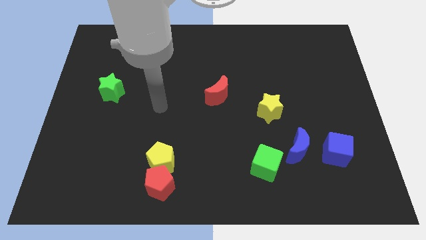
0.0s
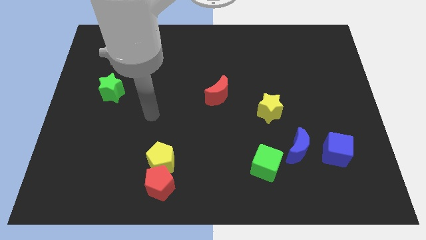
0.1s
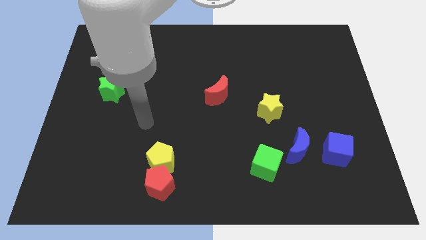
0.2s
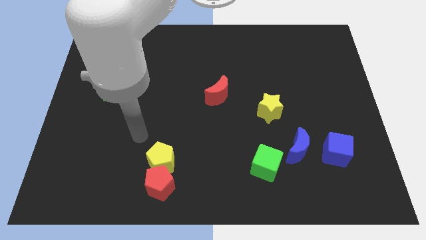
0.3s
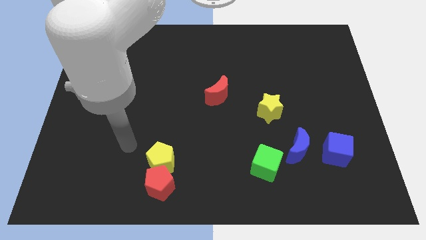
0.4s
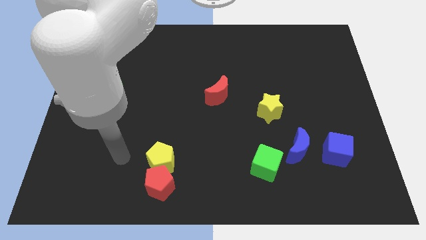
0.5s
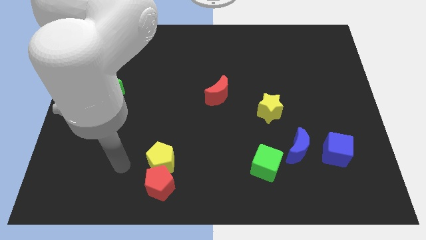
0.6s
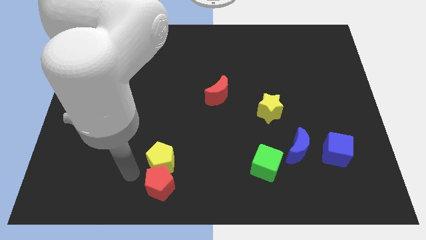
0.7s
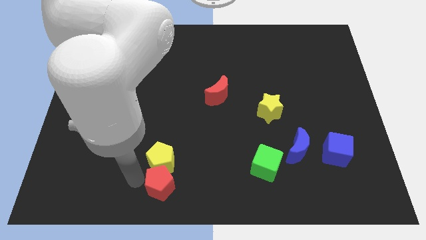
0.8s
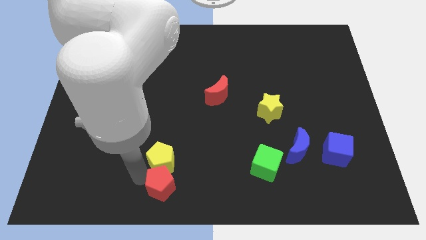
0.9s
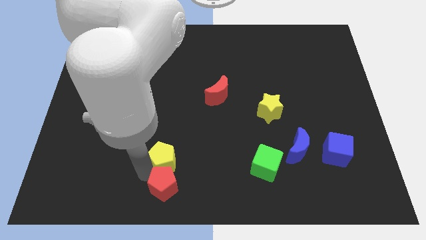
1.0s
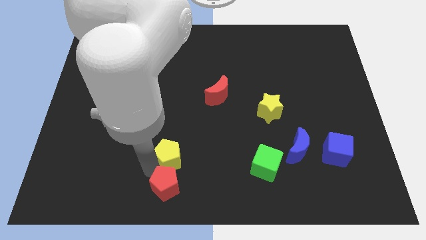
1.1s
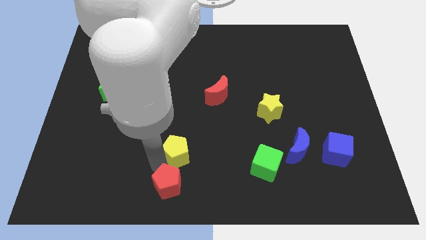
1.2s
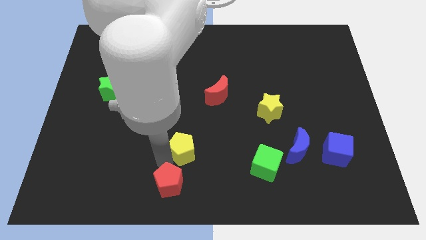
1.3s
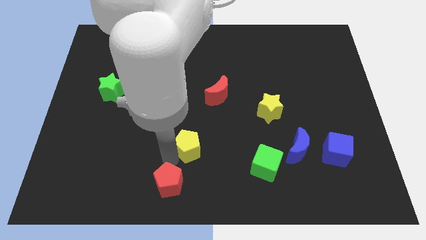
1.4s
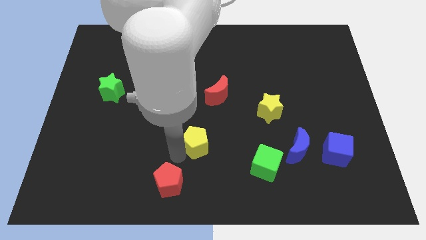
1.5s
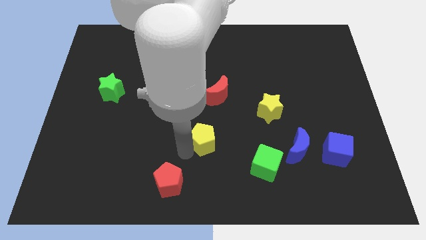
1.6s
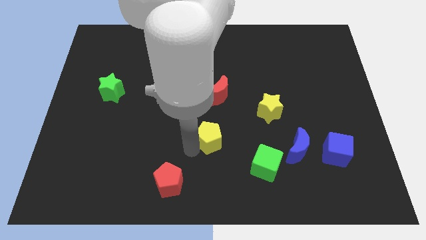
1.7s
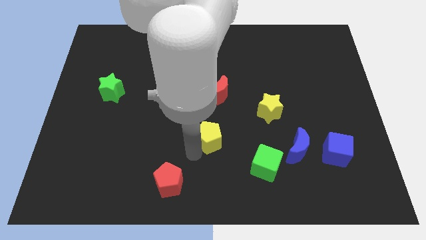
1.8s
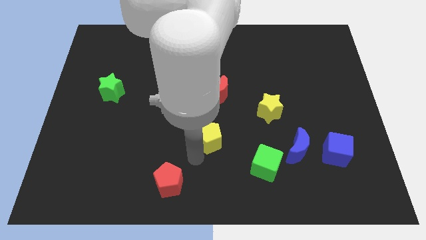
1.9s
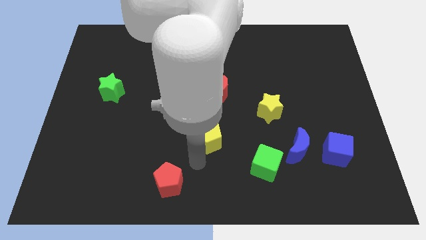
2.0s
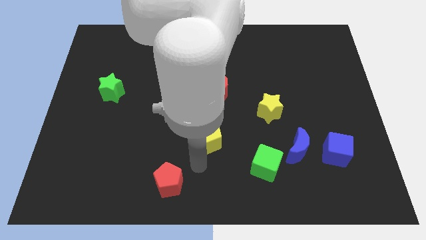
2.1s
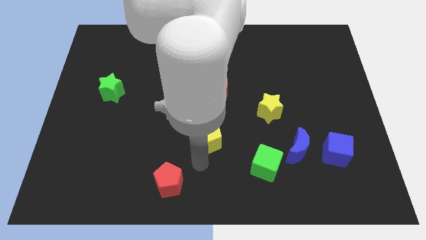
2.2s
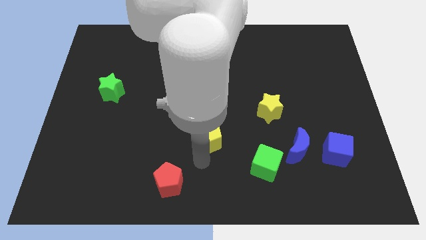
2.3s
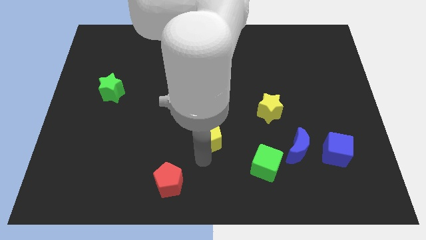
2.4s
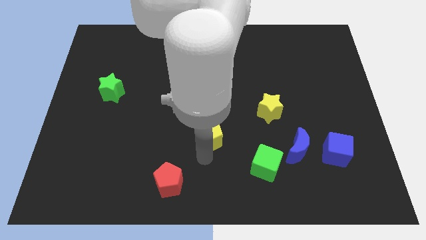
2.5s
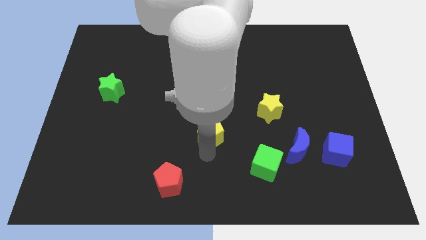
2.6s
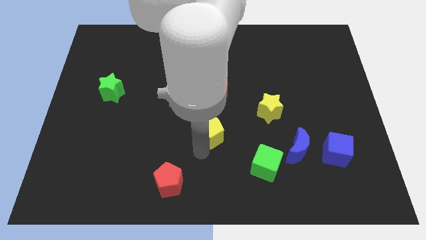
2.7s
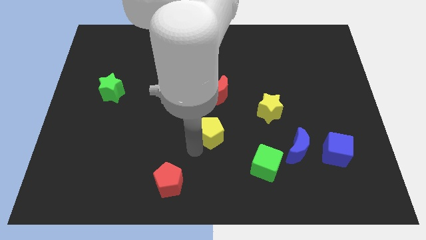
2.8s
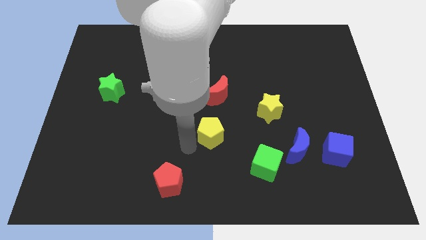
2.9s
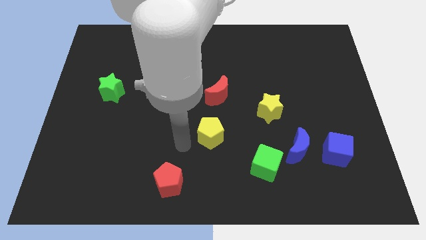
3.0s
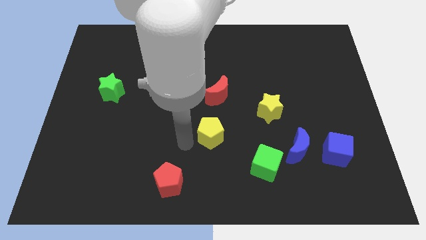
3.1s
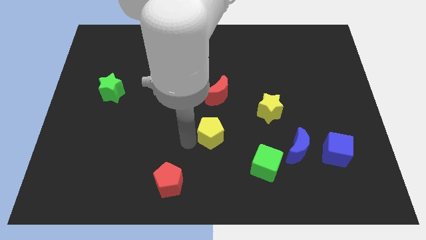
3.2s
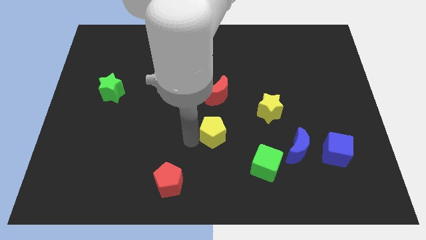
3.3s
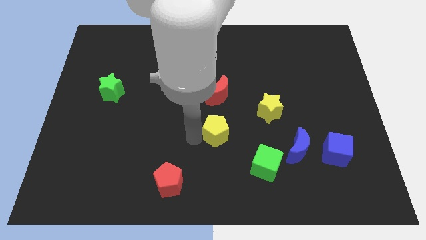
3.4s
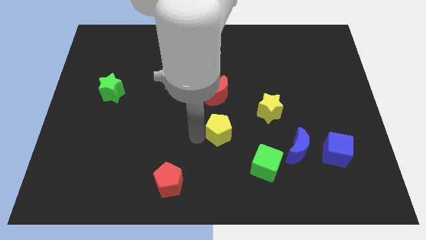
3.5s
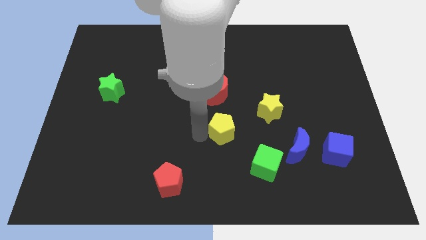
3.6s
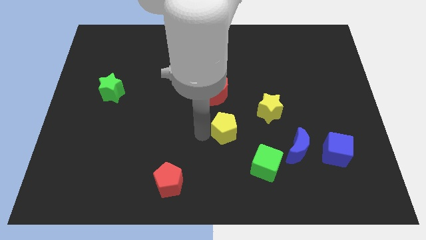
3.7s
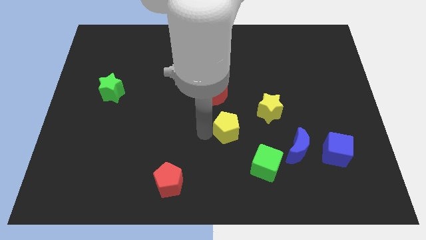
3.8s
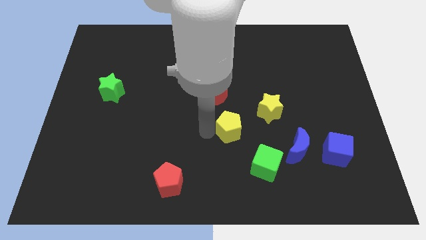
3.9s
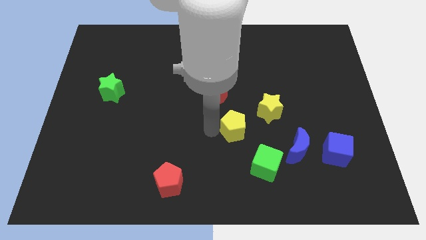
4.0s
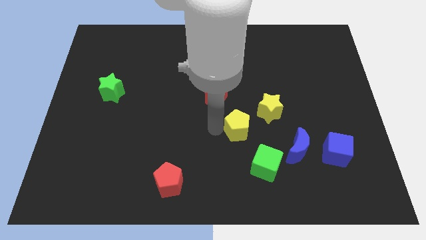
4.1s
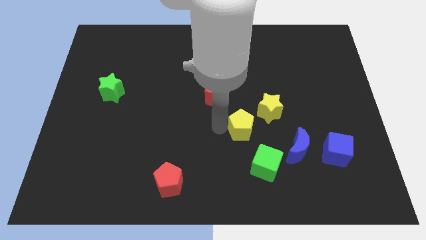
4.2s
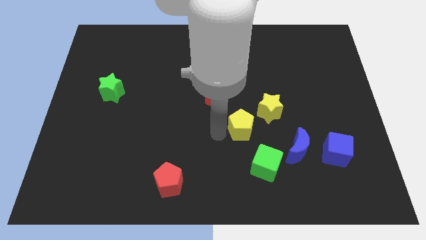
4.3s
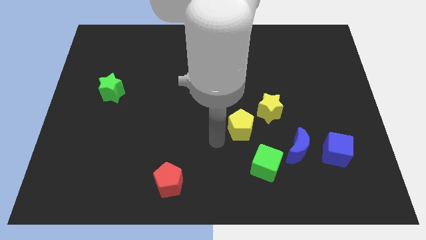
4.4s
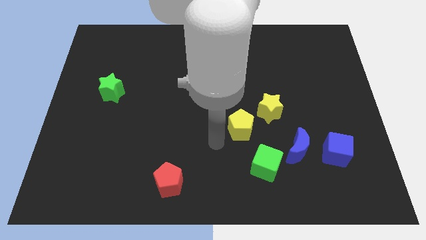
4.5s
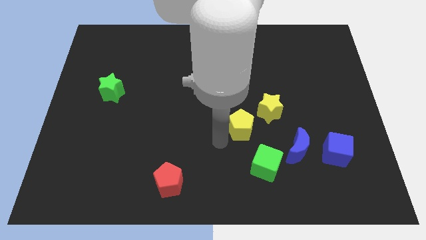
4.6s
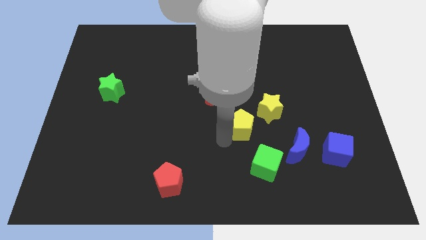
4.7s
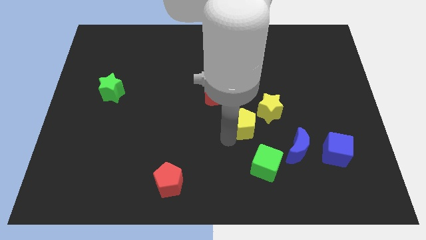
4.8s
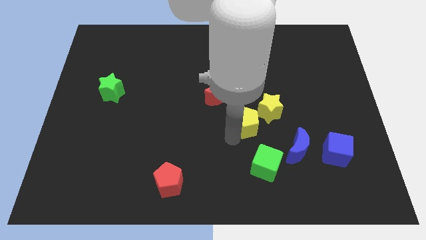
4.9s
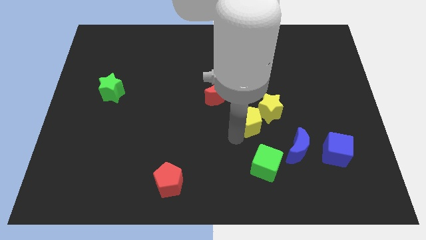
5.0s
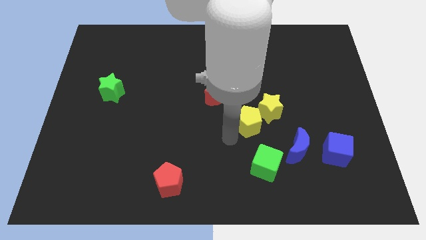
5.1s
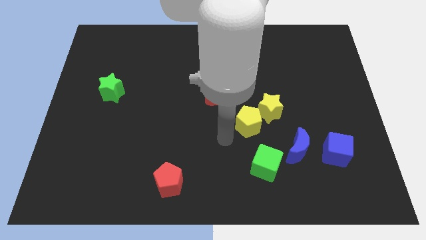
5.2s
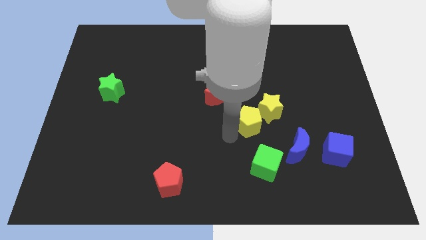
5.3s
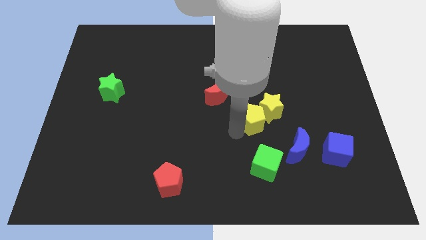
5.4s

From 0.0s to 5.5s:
slide the yellow pentagon next to the yellow star

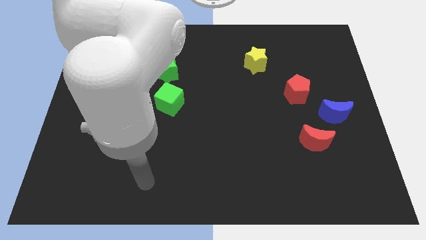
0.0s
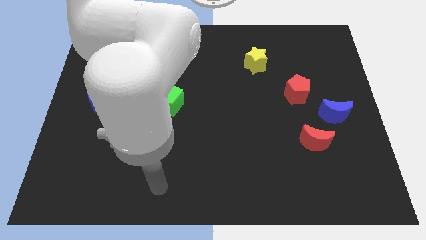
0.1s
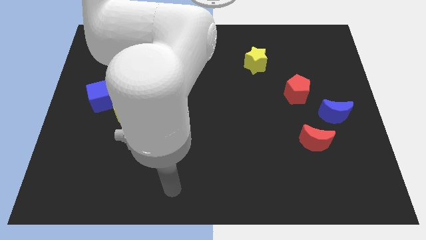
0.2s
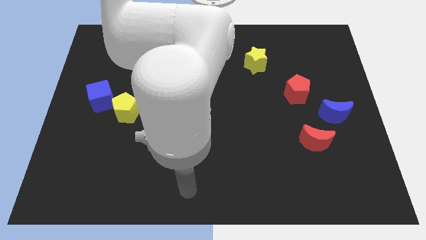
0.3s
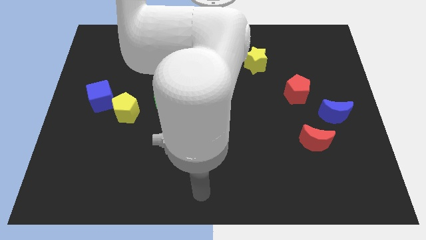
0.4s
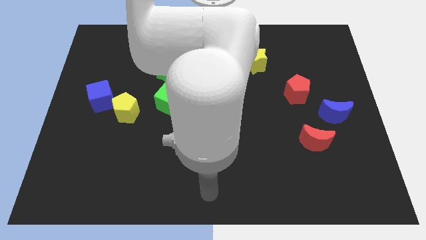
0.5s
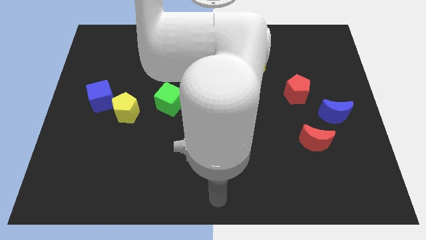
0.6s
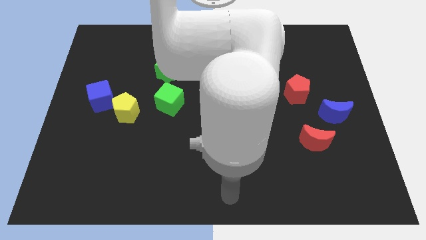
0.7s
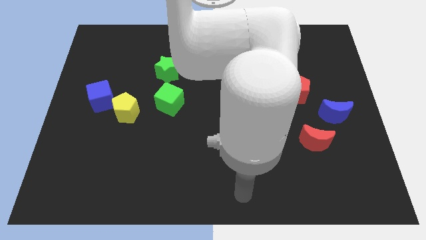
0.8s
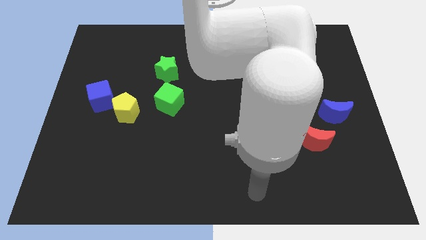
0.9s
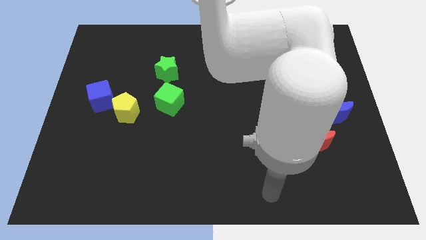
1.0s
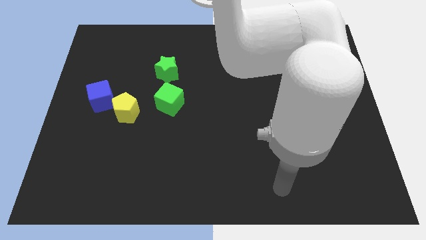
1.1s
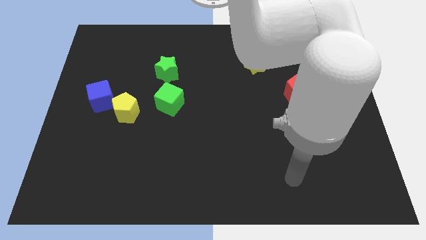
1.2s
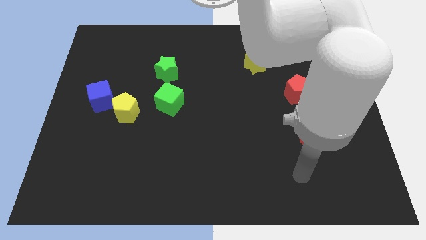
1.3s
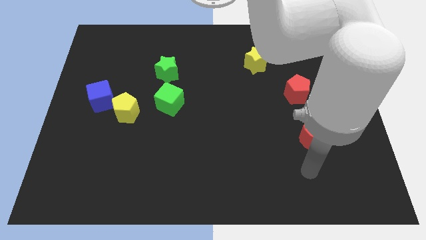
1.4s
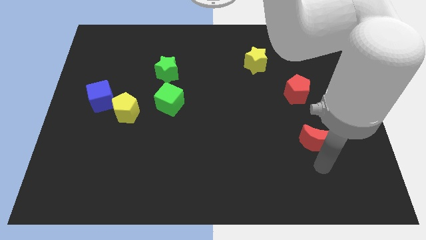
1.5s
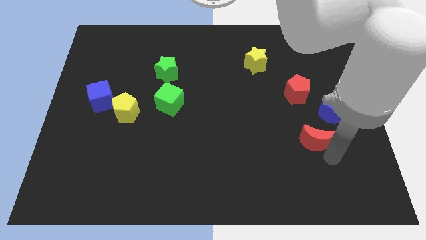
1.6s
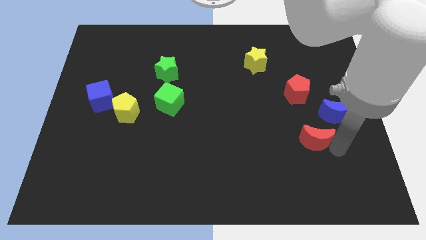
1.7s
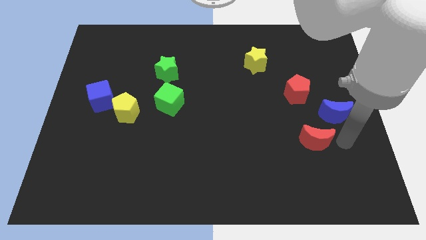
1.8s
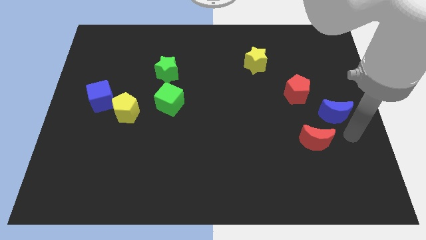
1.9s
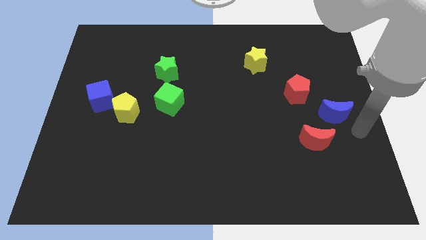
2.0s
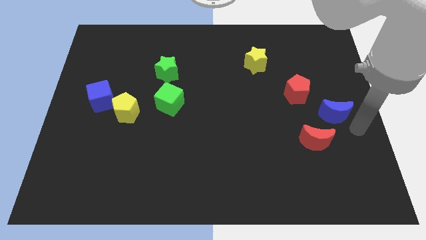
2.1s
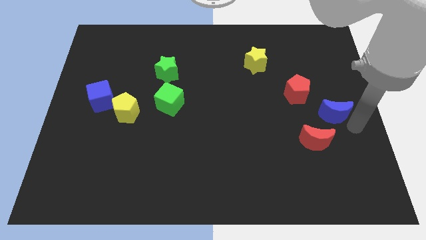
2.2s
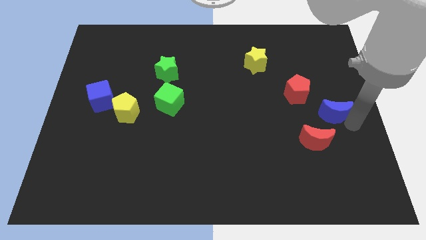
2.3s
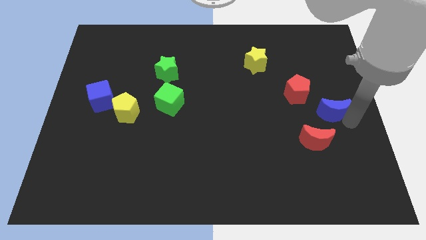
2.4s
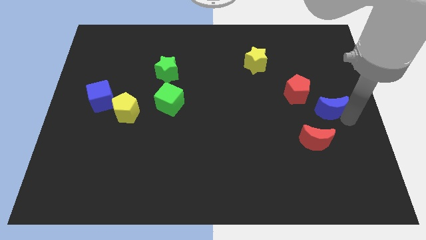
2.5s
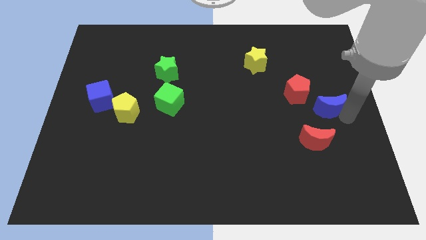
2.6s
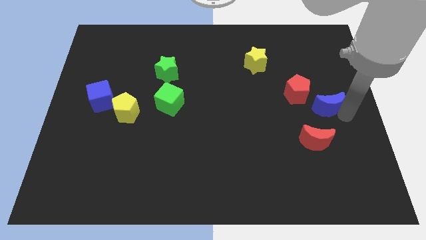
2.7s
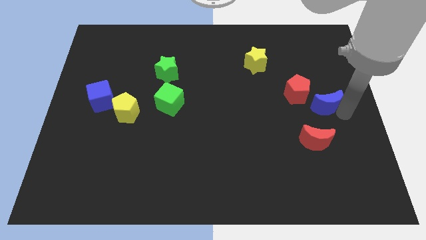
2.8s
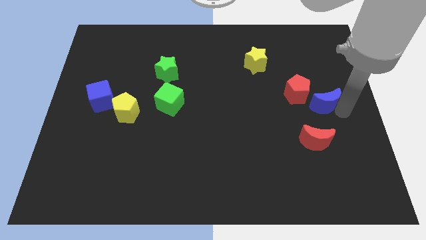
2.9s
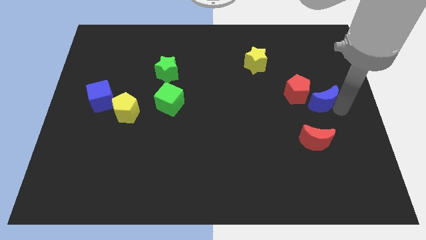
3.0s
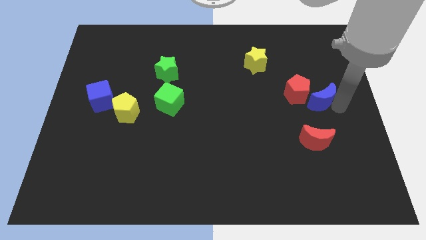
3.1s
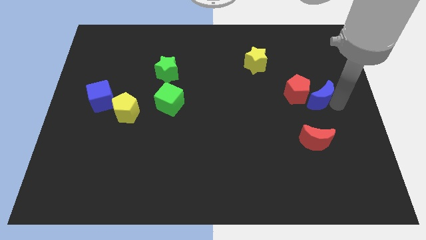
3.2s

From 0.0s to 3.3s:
put the blue moon towards the red pentagon
